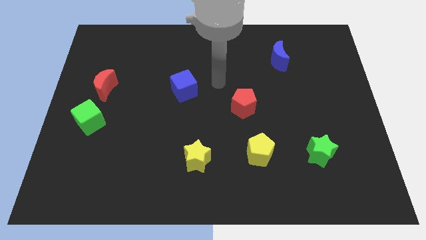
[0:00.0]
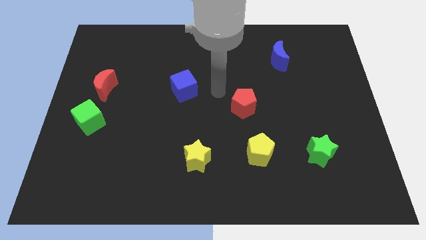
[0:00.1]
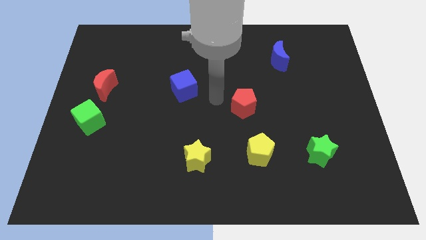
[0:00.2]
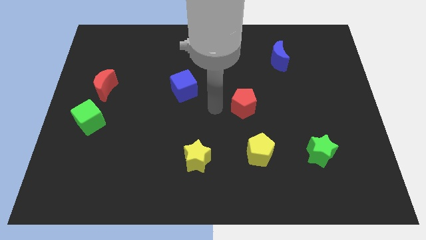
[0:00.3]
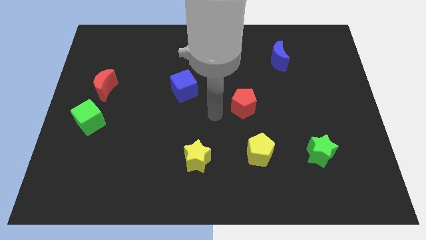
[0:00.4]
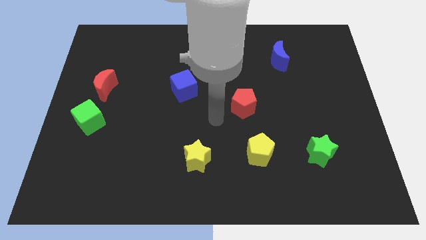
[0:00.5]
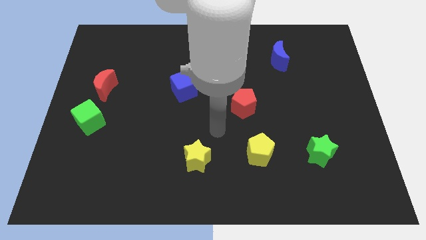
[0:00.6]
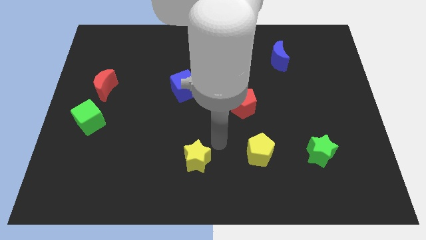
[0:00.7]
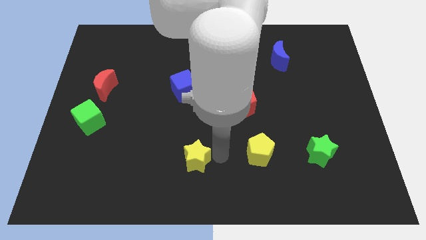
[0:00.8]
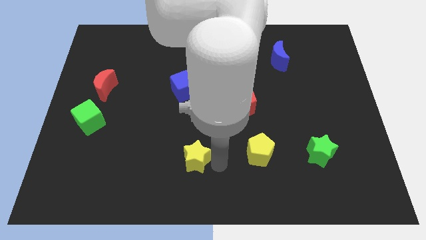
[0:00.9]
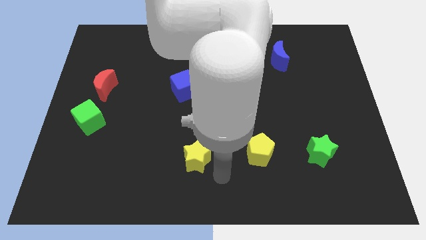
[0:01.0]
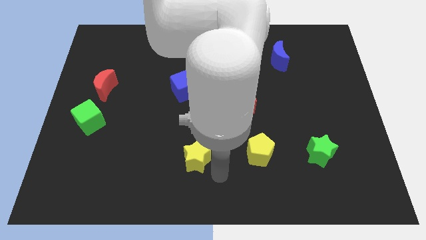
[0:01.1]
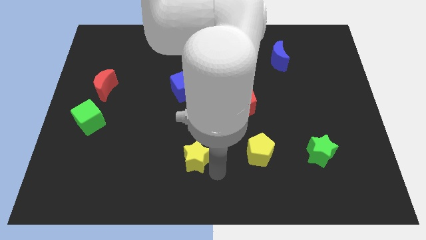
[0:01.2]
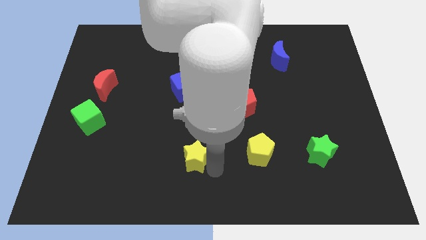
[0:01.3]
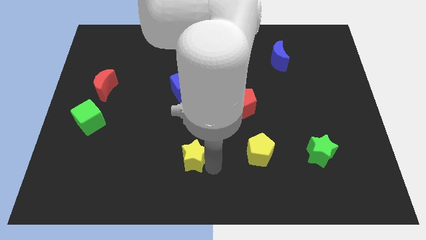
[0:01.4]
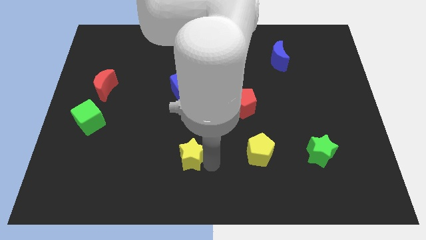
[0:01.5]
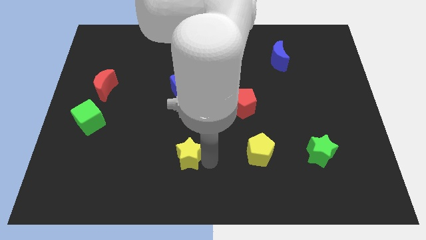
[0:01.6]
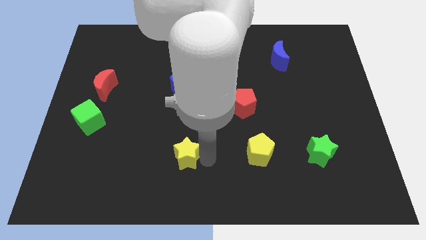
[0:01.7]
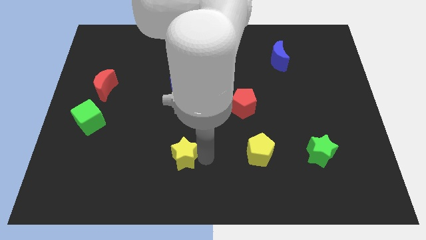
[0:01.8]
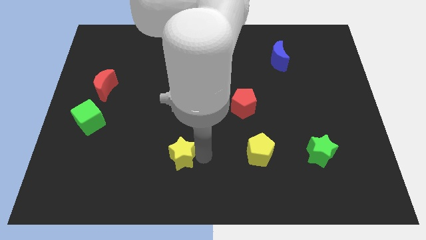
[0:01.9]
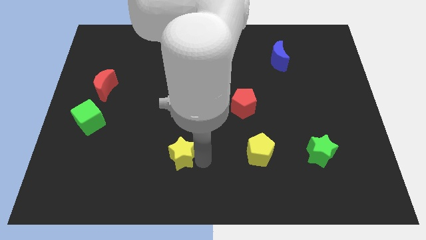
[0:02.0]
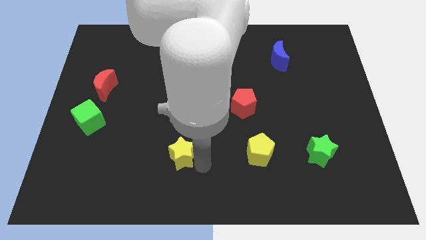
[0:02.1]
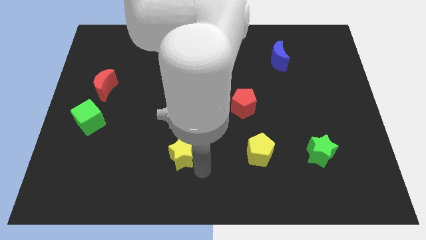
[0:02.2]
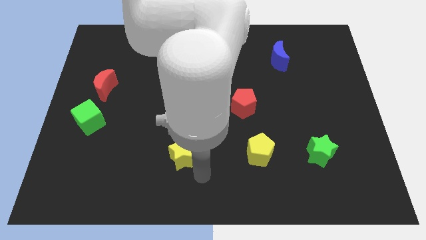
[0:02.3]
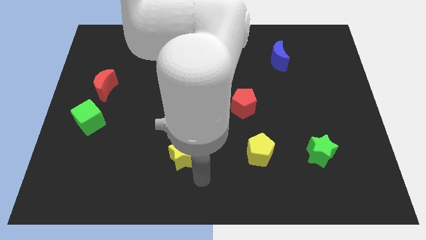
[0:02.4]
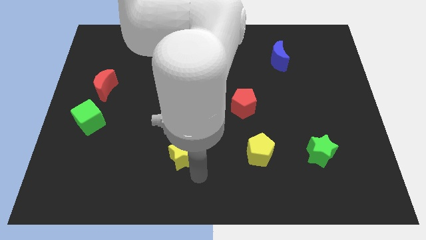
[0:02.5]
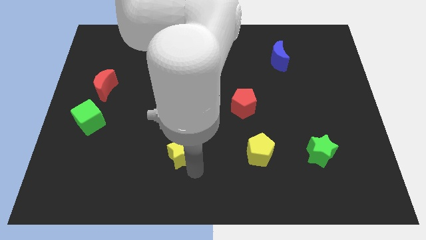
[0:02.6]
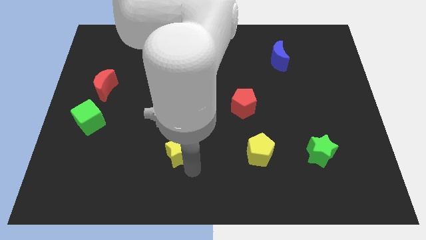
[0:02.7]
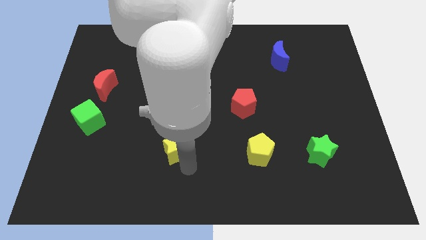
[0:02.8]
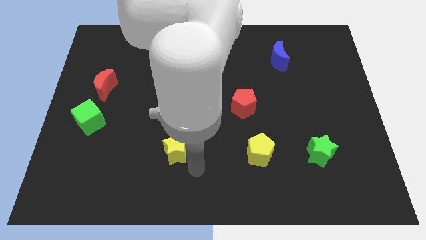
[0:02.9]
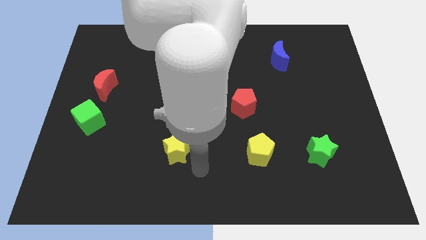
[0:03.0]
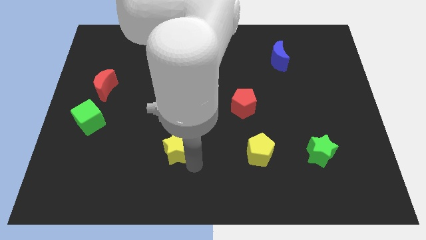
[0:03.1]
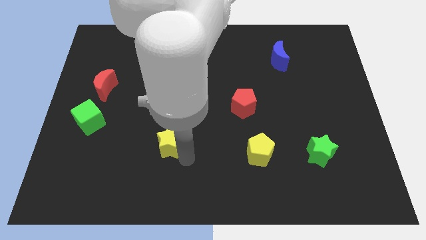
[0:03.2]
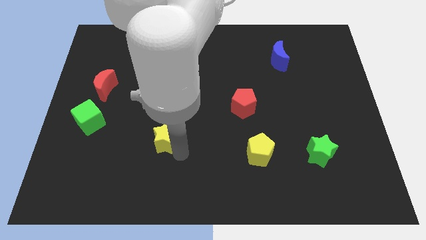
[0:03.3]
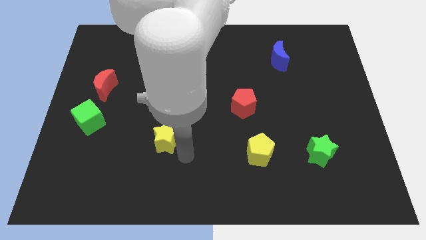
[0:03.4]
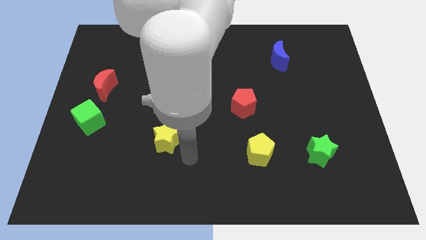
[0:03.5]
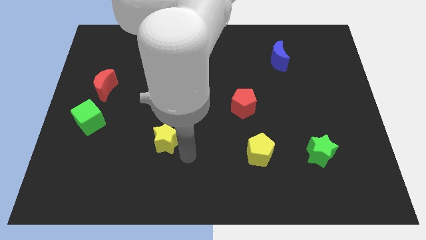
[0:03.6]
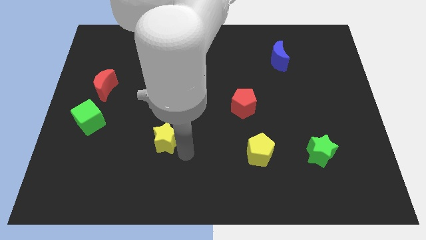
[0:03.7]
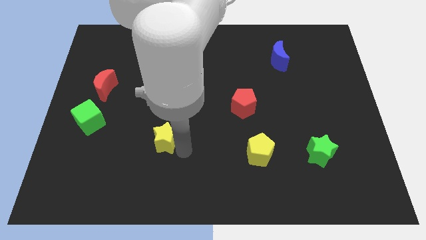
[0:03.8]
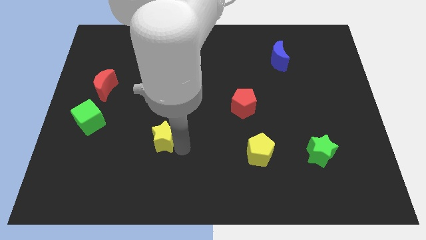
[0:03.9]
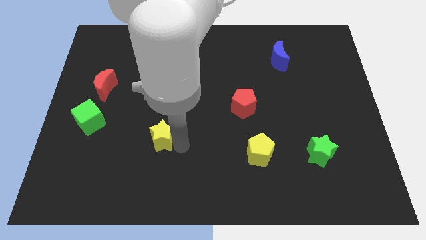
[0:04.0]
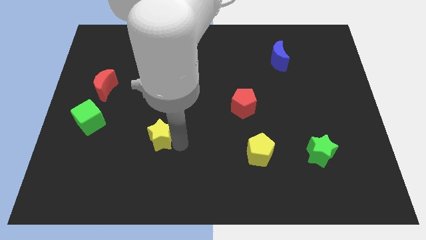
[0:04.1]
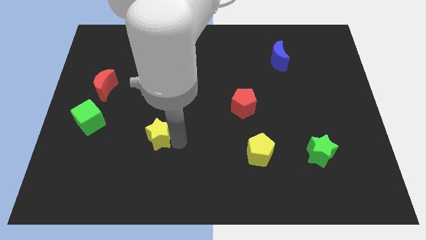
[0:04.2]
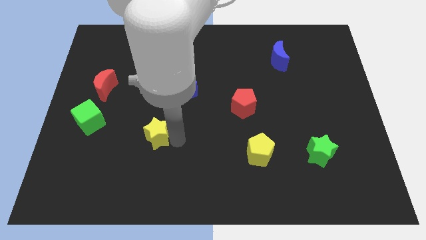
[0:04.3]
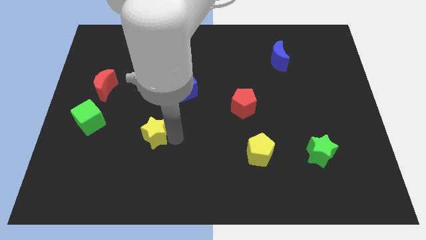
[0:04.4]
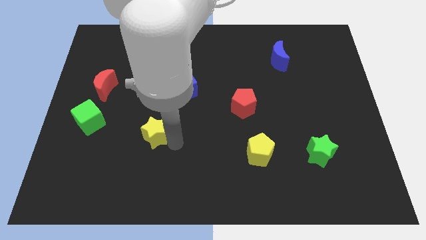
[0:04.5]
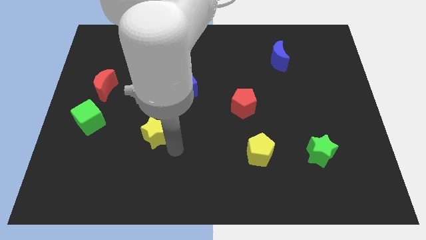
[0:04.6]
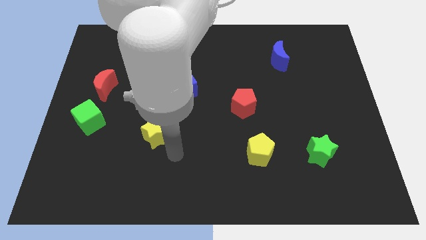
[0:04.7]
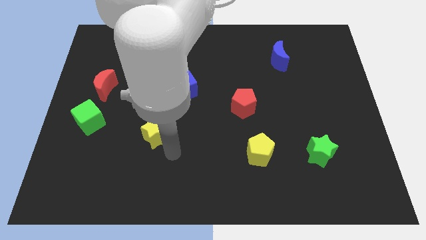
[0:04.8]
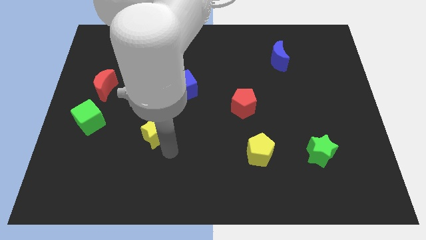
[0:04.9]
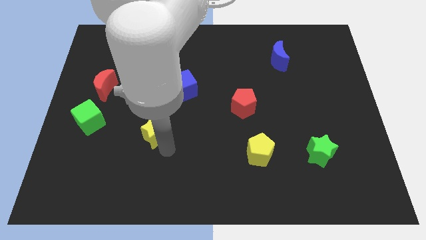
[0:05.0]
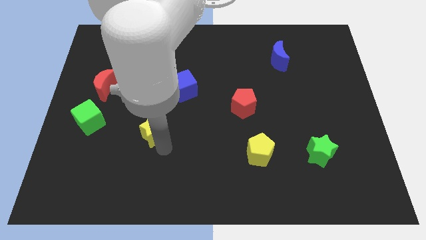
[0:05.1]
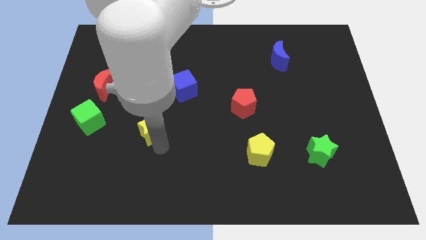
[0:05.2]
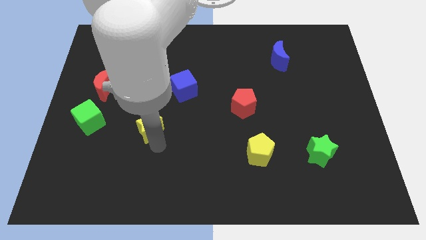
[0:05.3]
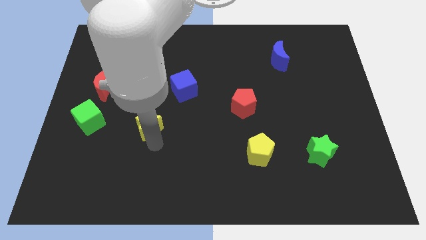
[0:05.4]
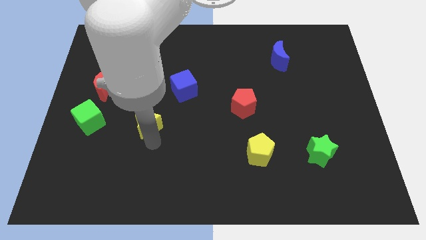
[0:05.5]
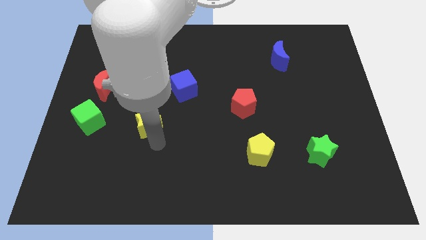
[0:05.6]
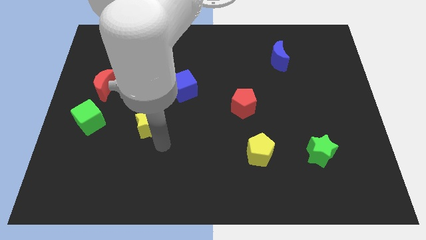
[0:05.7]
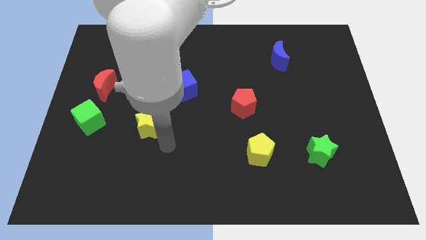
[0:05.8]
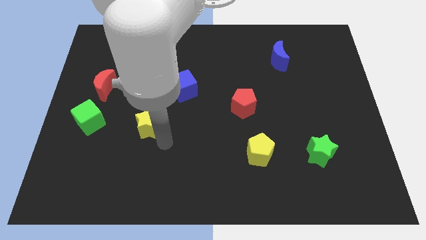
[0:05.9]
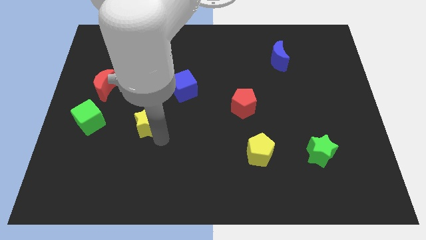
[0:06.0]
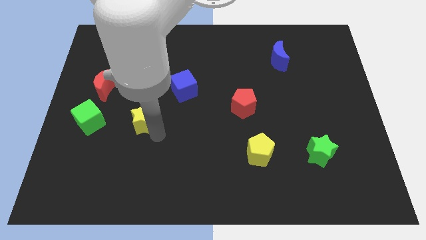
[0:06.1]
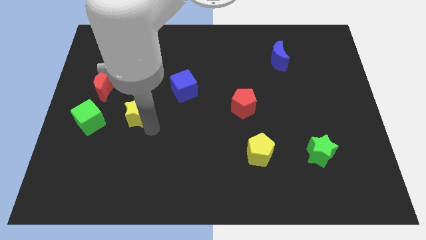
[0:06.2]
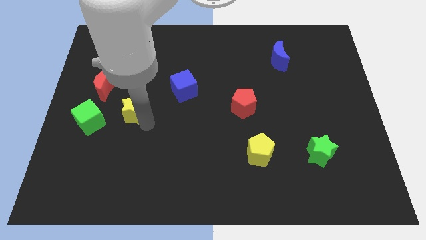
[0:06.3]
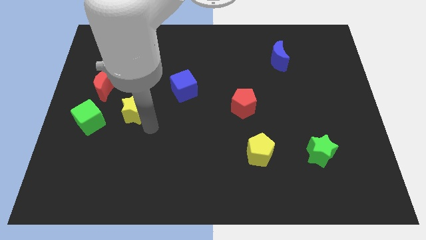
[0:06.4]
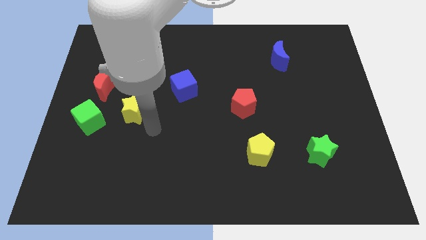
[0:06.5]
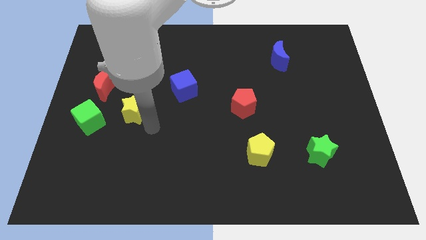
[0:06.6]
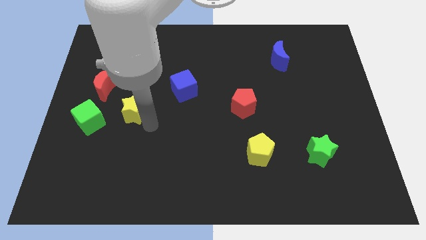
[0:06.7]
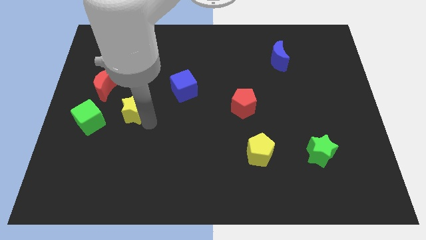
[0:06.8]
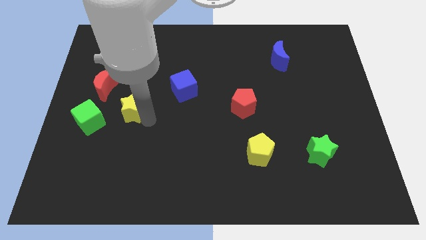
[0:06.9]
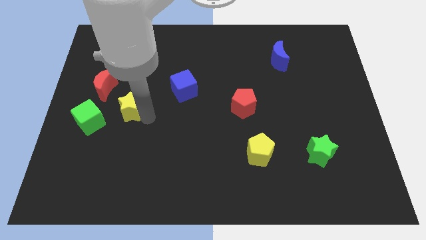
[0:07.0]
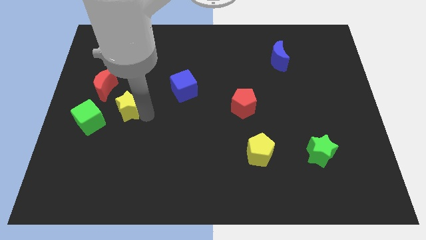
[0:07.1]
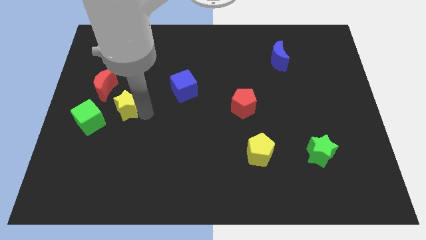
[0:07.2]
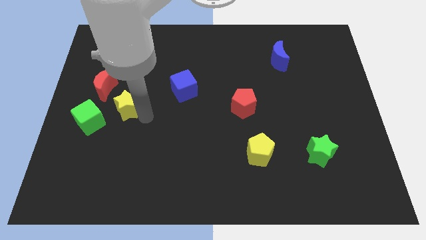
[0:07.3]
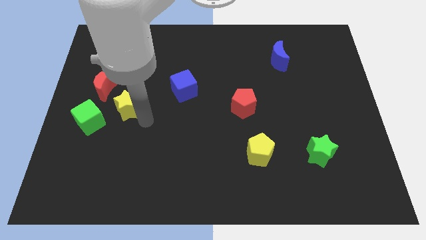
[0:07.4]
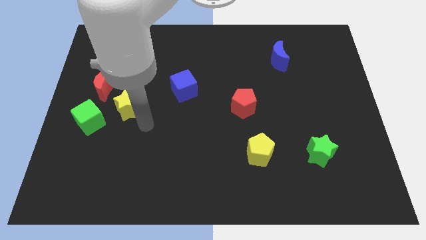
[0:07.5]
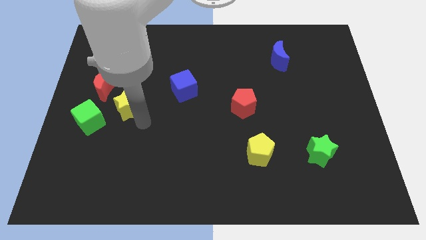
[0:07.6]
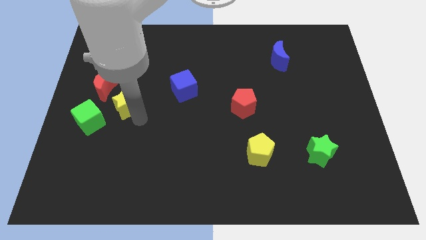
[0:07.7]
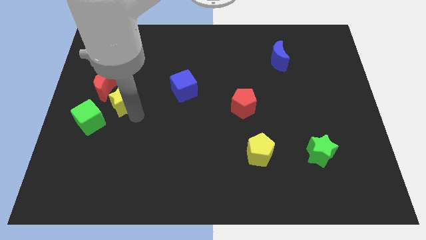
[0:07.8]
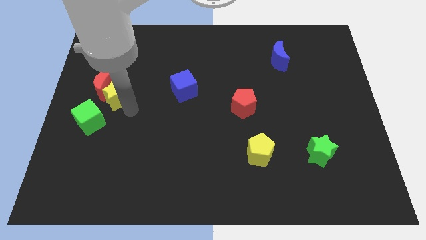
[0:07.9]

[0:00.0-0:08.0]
move the yellow star next to the red moon
